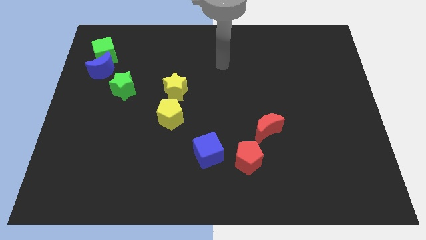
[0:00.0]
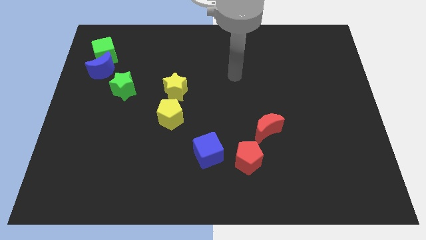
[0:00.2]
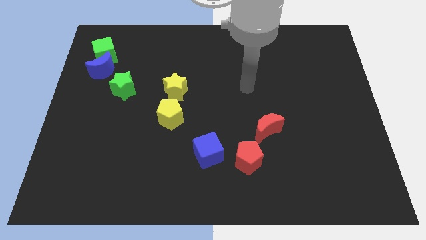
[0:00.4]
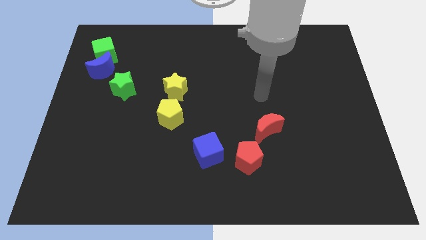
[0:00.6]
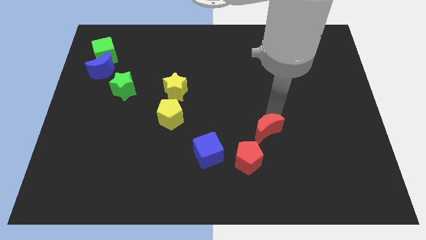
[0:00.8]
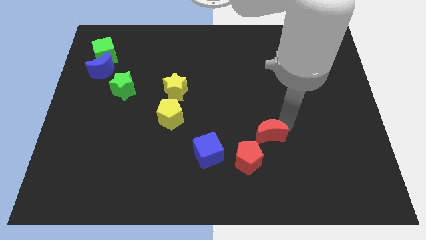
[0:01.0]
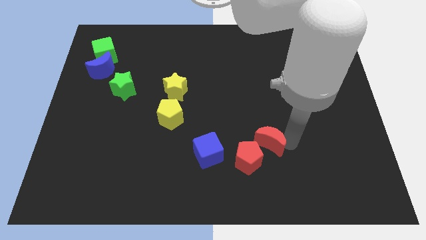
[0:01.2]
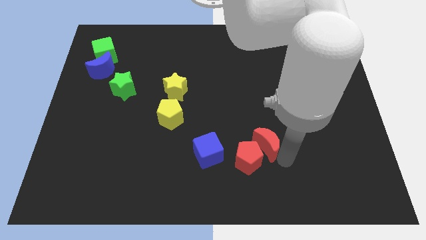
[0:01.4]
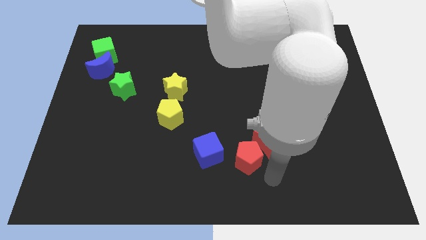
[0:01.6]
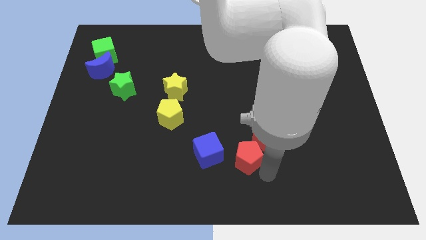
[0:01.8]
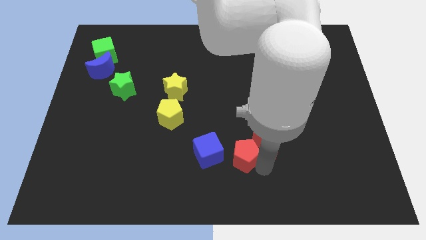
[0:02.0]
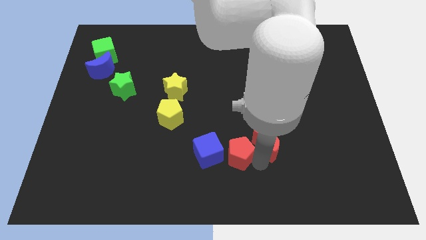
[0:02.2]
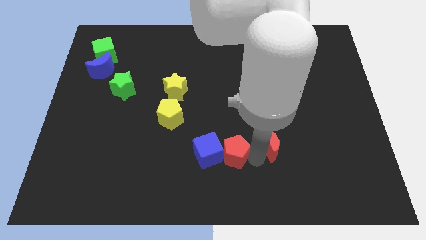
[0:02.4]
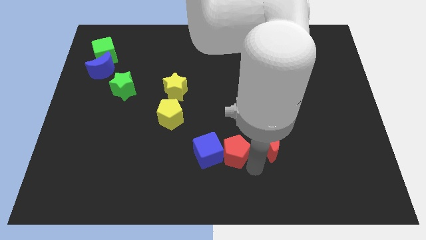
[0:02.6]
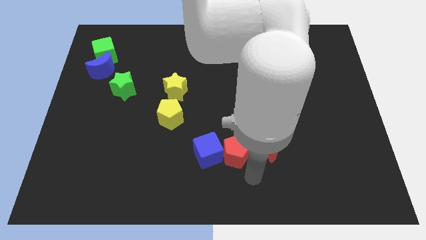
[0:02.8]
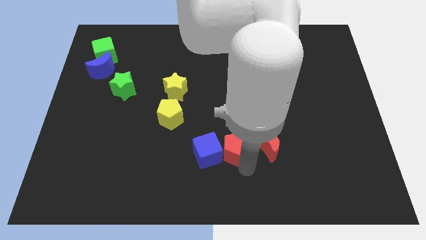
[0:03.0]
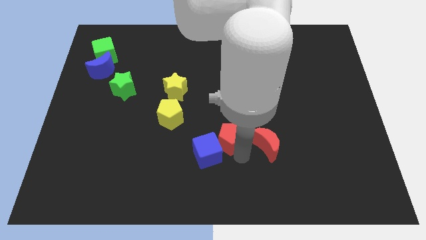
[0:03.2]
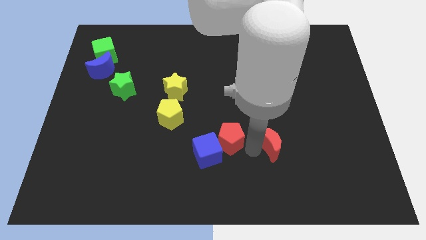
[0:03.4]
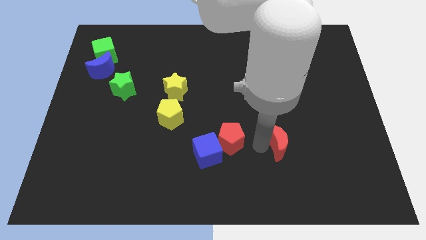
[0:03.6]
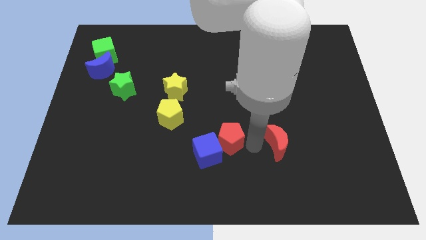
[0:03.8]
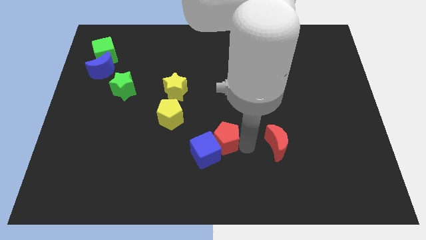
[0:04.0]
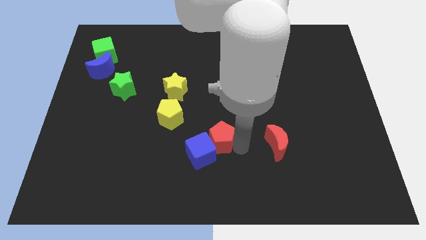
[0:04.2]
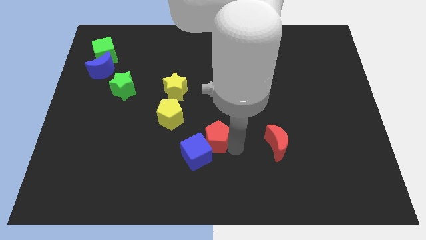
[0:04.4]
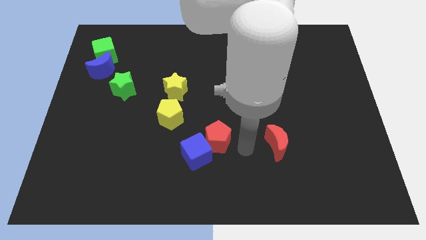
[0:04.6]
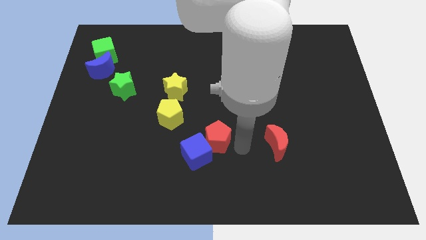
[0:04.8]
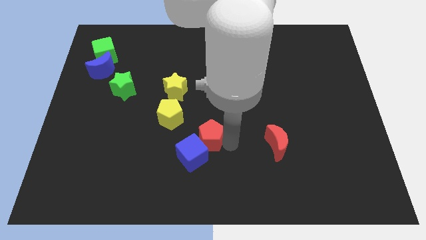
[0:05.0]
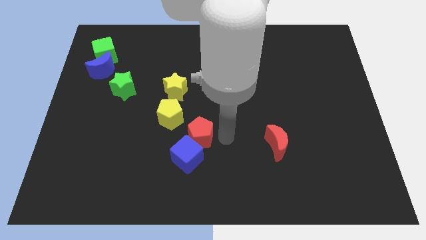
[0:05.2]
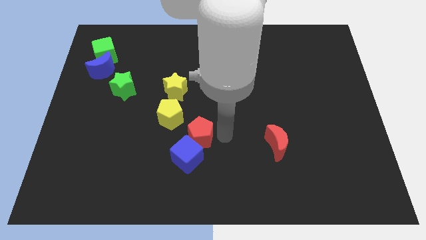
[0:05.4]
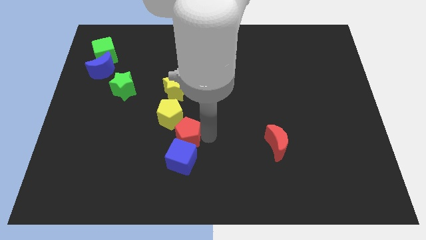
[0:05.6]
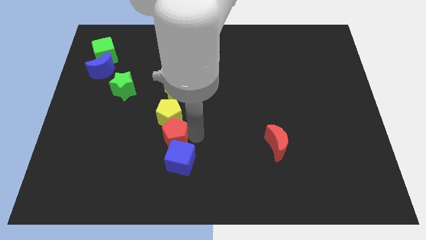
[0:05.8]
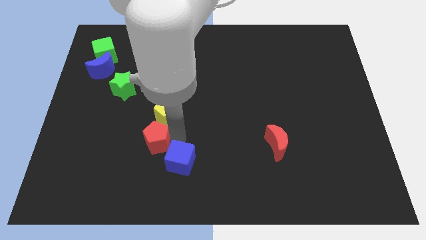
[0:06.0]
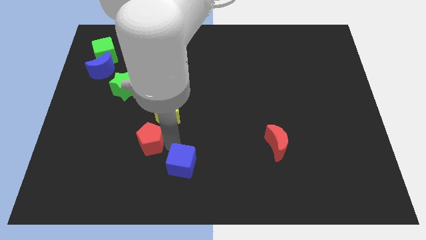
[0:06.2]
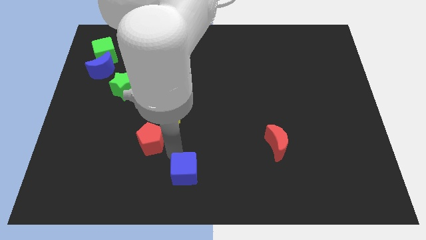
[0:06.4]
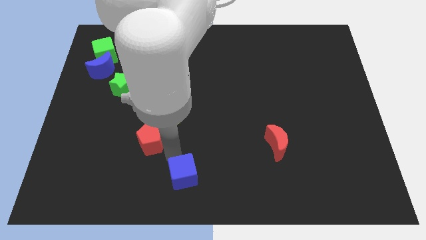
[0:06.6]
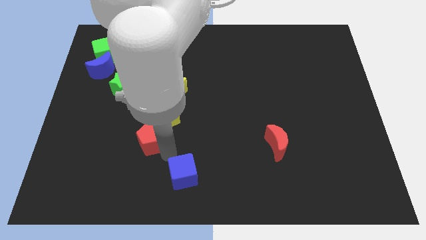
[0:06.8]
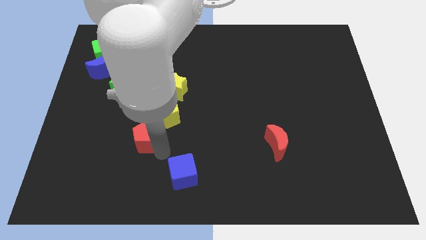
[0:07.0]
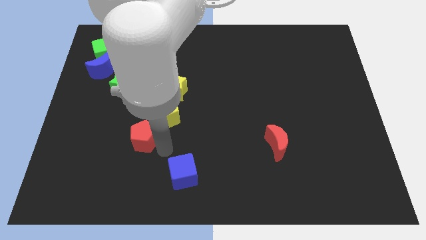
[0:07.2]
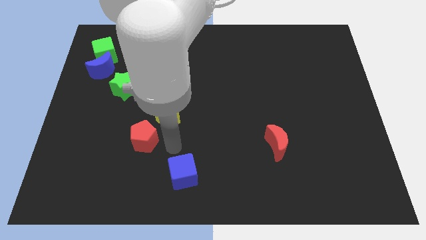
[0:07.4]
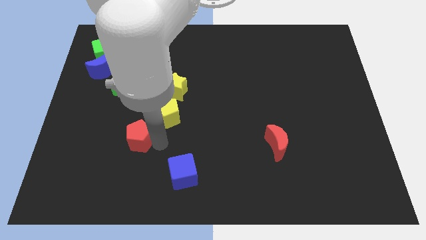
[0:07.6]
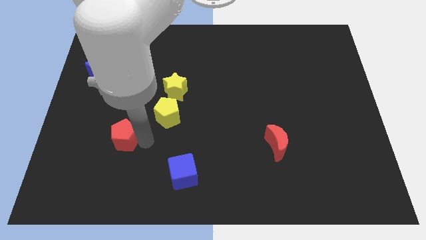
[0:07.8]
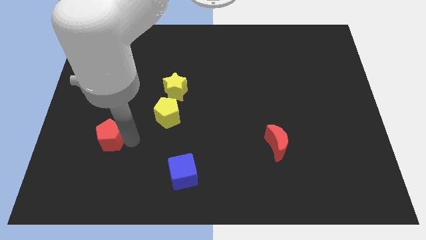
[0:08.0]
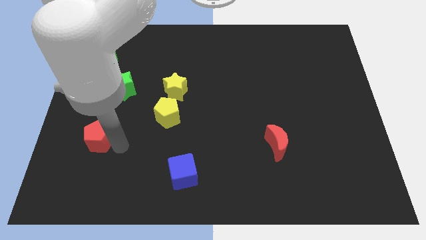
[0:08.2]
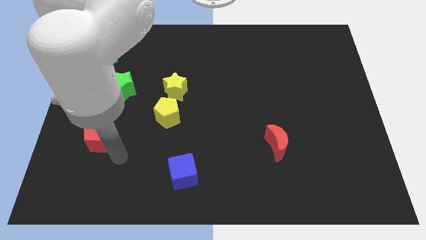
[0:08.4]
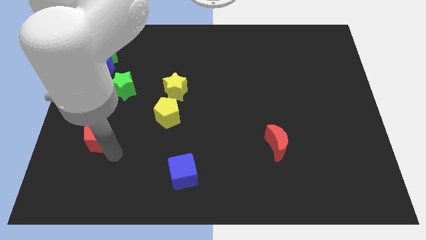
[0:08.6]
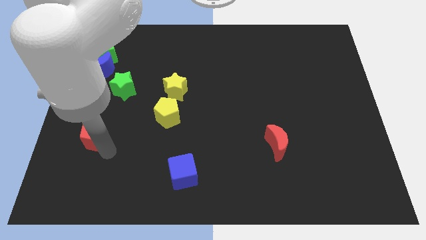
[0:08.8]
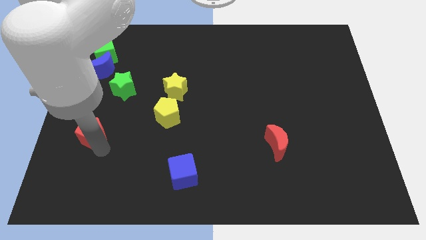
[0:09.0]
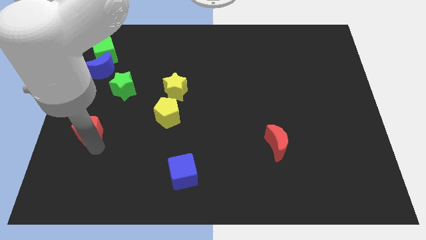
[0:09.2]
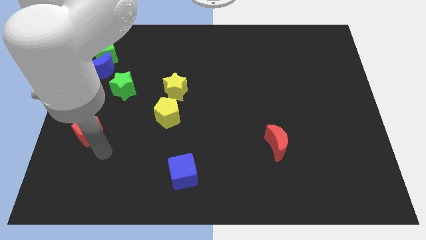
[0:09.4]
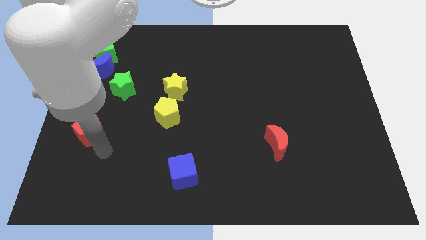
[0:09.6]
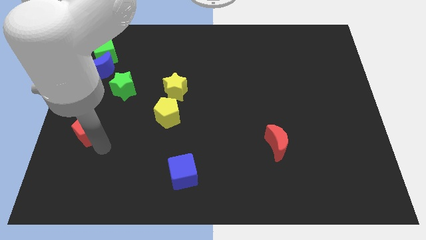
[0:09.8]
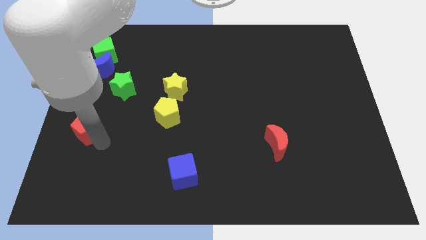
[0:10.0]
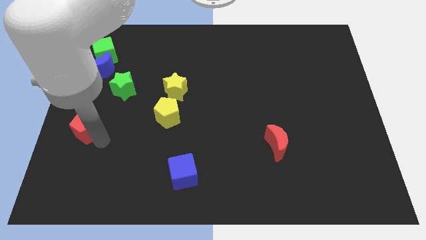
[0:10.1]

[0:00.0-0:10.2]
move the red pentagon to the left side

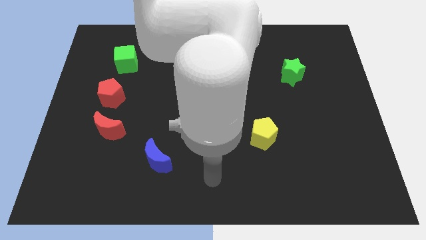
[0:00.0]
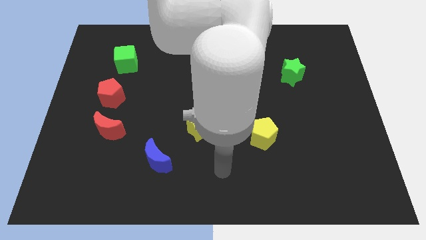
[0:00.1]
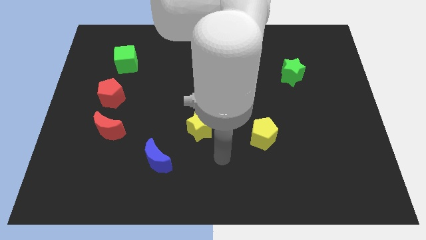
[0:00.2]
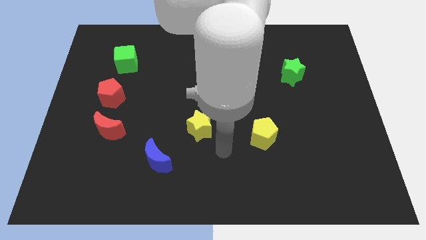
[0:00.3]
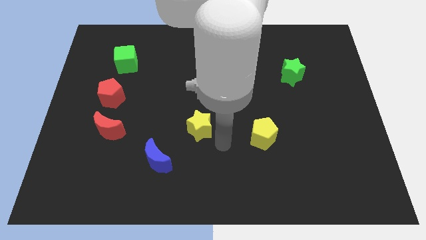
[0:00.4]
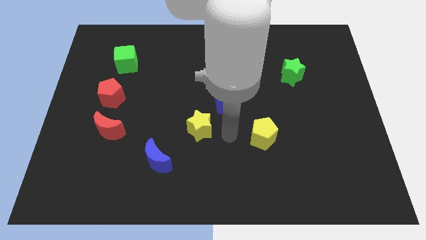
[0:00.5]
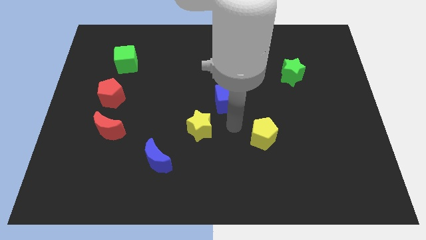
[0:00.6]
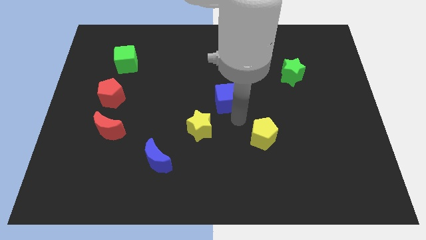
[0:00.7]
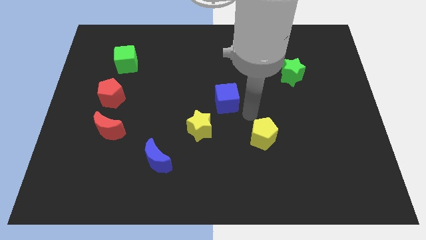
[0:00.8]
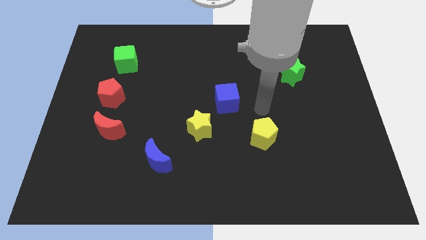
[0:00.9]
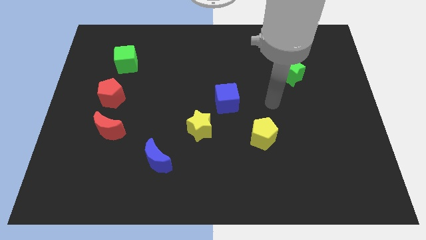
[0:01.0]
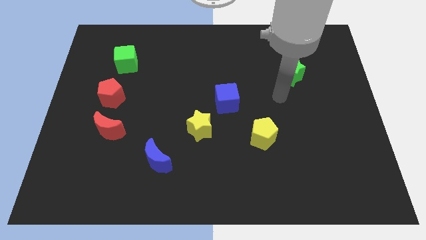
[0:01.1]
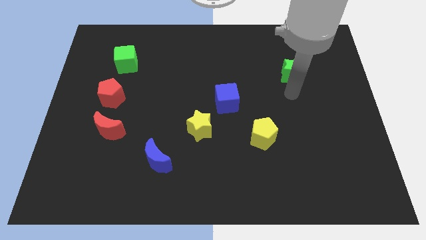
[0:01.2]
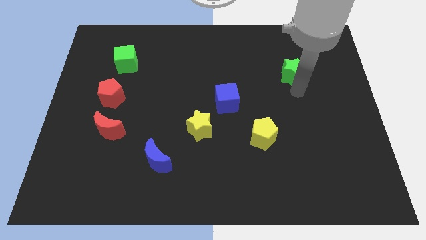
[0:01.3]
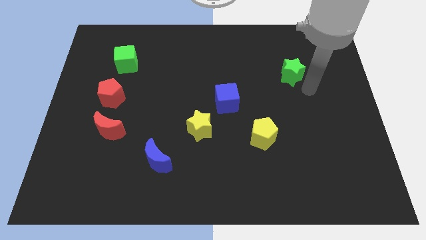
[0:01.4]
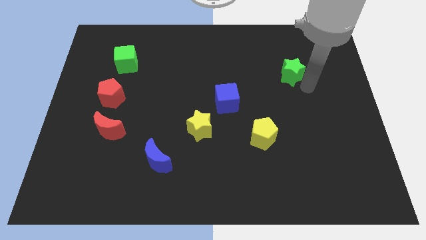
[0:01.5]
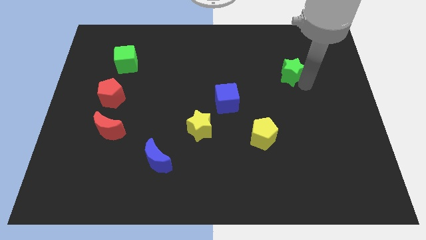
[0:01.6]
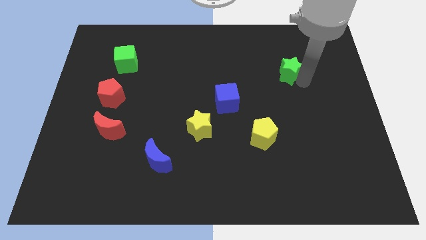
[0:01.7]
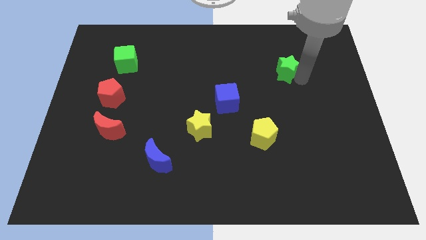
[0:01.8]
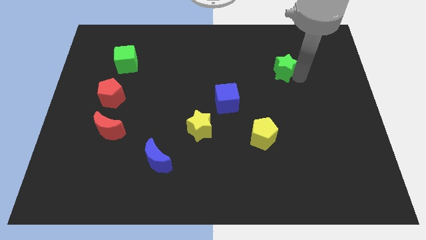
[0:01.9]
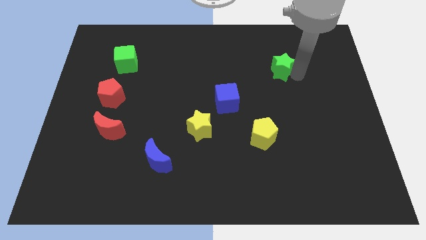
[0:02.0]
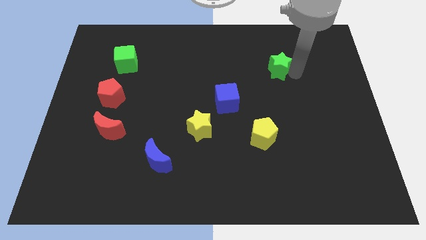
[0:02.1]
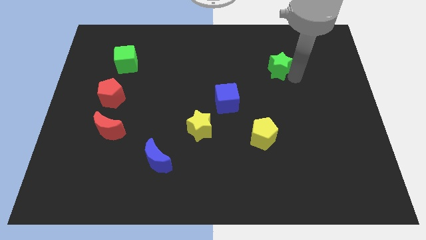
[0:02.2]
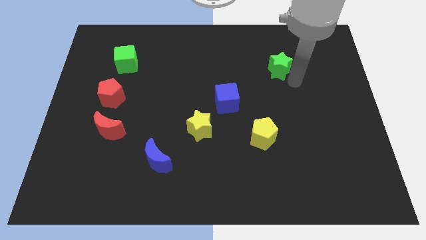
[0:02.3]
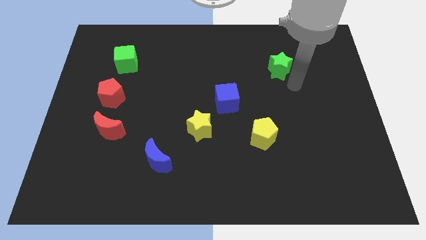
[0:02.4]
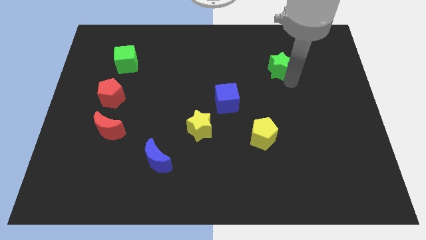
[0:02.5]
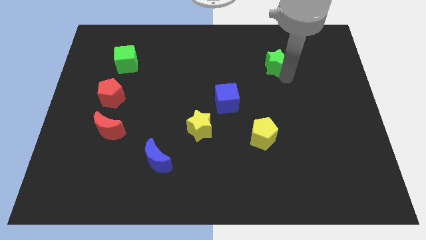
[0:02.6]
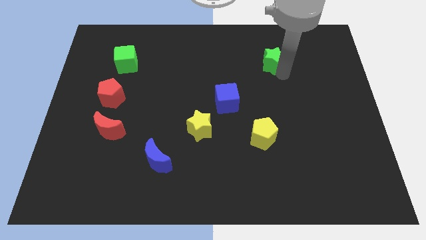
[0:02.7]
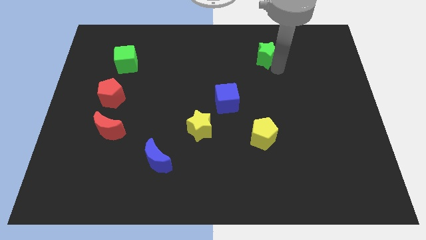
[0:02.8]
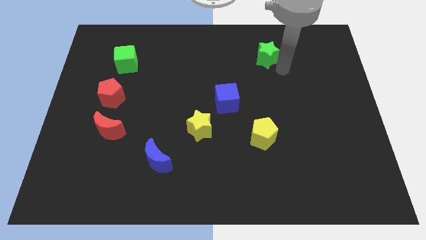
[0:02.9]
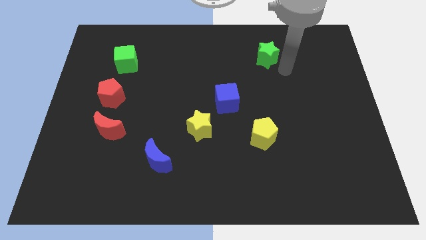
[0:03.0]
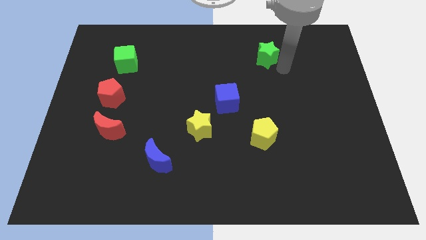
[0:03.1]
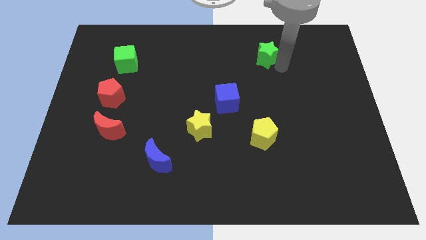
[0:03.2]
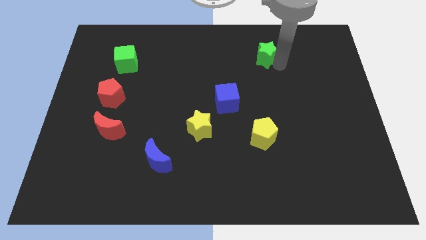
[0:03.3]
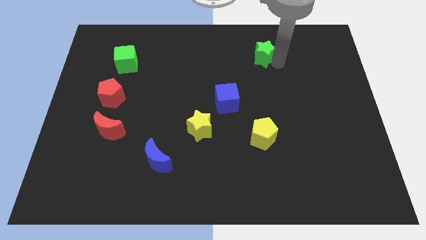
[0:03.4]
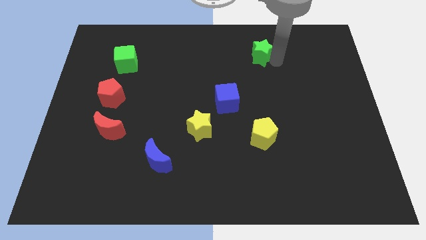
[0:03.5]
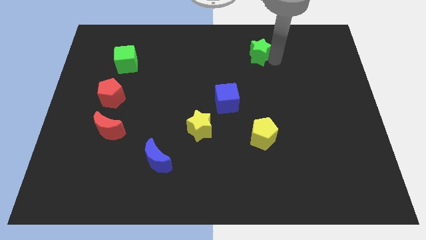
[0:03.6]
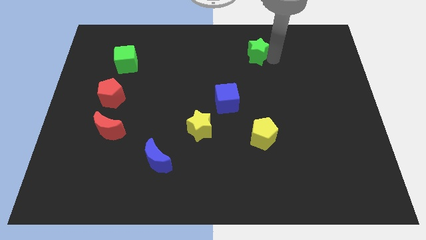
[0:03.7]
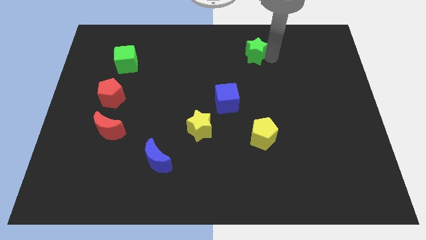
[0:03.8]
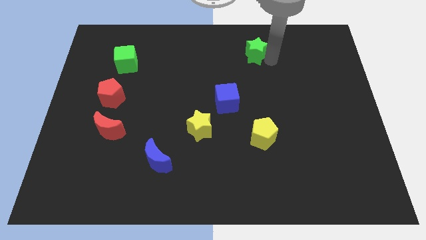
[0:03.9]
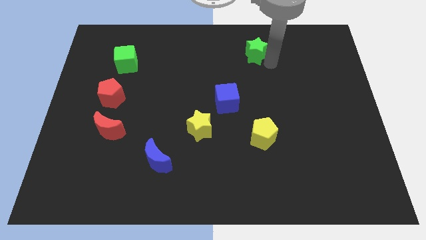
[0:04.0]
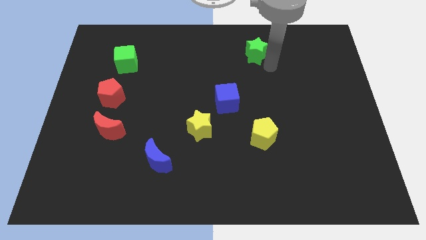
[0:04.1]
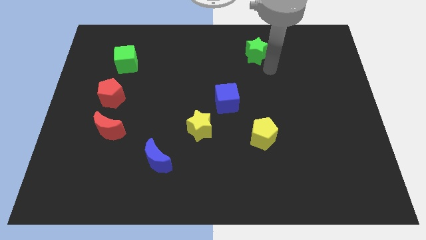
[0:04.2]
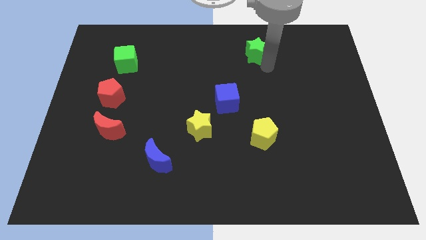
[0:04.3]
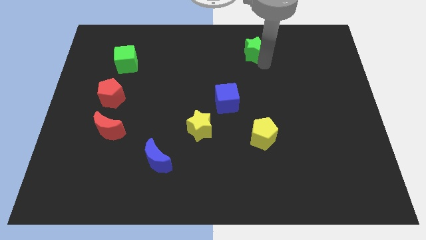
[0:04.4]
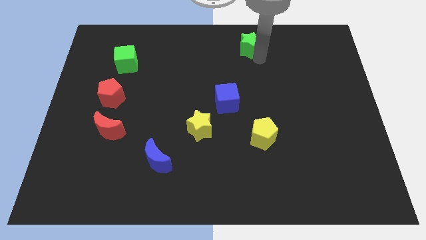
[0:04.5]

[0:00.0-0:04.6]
move the green star to the top side
